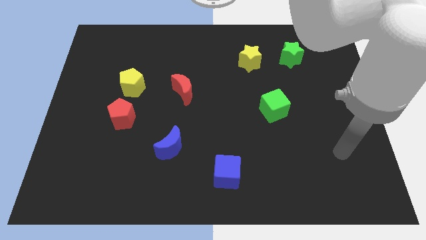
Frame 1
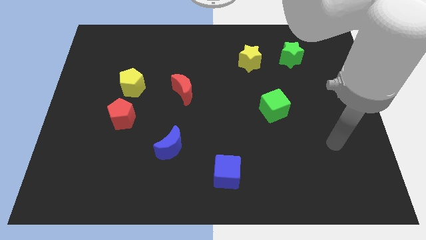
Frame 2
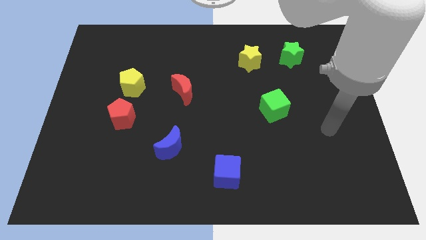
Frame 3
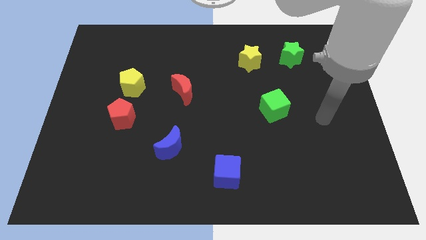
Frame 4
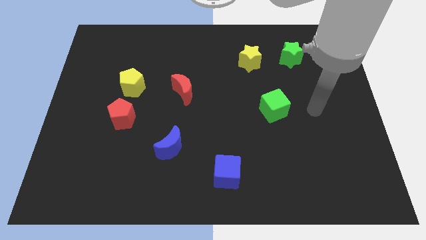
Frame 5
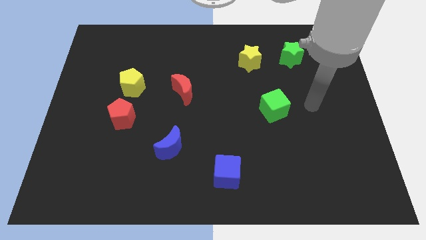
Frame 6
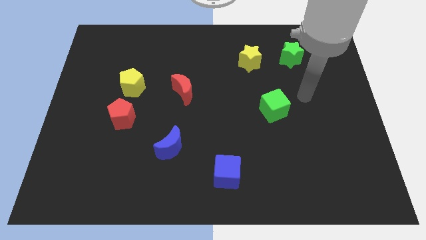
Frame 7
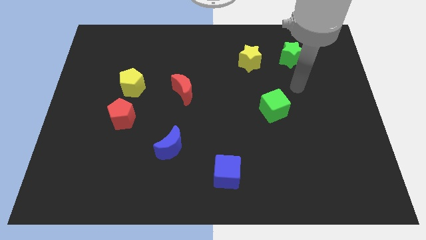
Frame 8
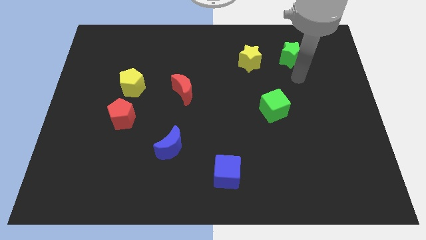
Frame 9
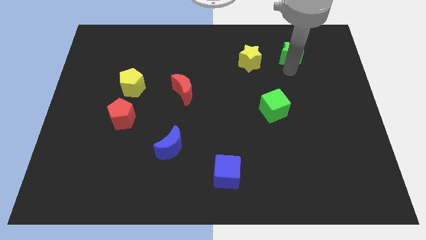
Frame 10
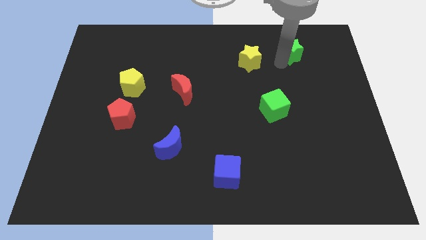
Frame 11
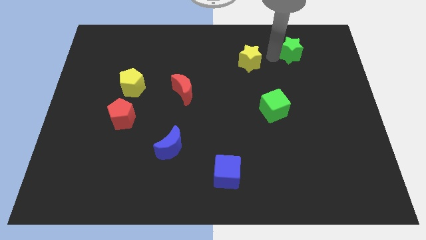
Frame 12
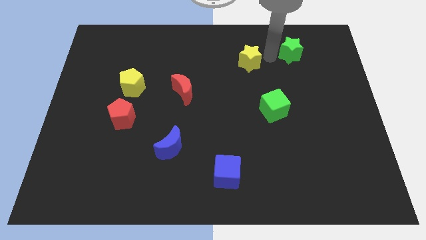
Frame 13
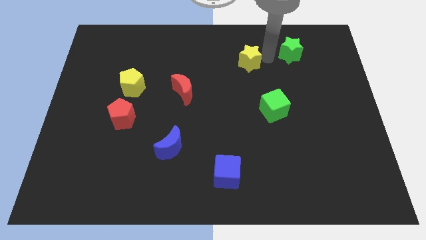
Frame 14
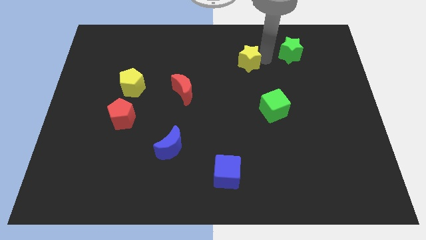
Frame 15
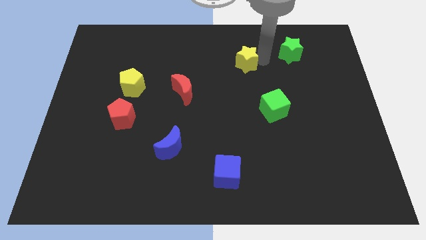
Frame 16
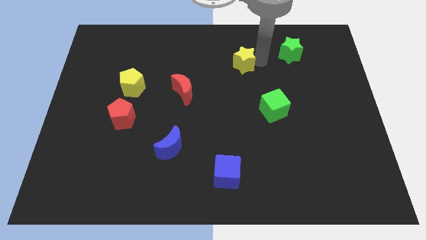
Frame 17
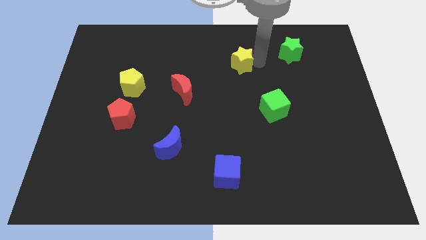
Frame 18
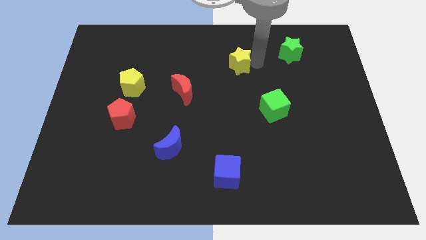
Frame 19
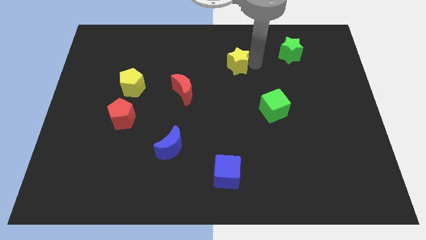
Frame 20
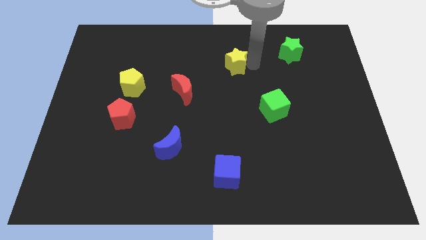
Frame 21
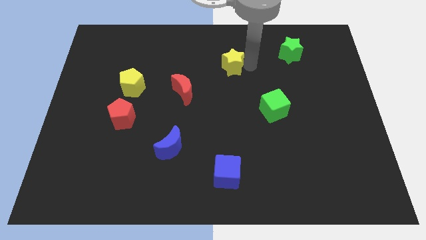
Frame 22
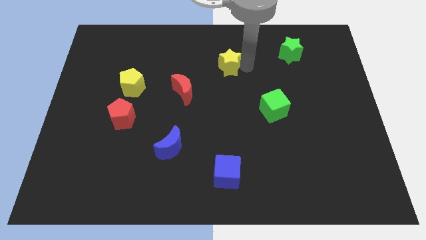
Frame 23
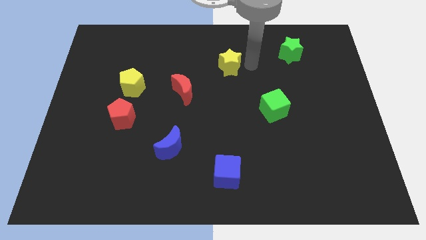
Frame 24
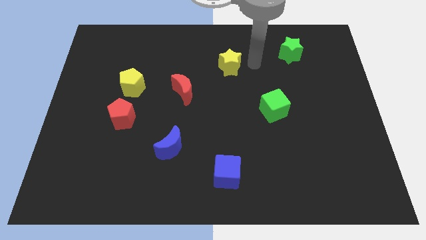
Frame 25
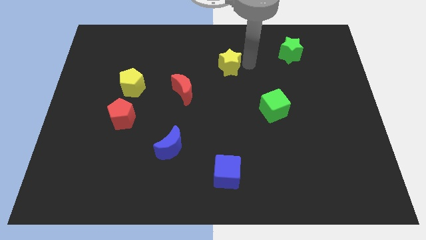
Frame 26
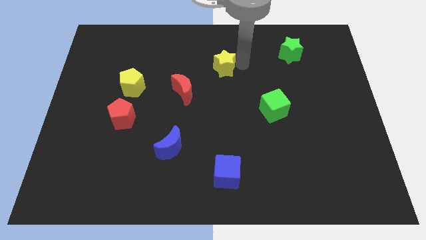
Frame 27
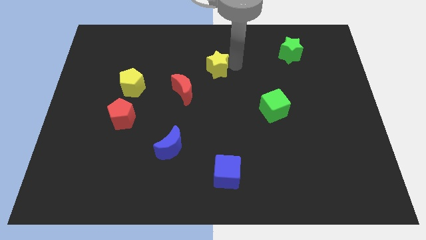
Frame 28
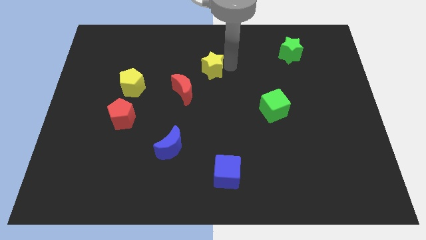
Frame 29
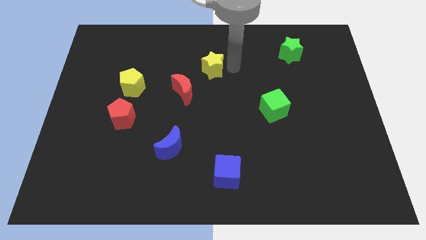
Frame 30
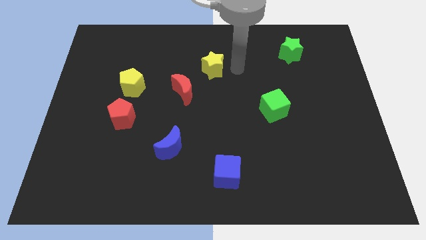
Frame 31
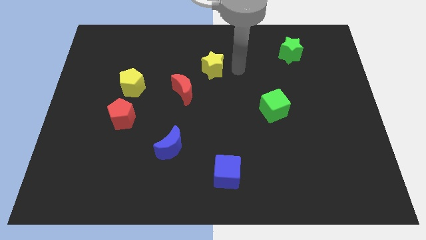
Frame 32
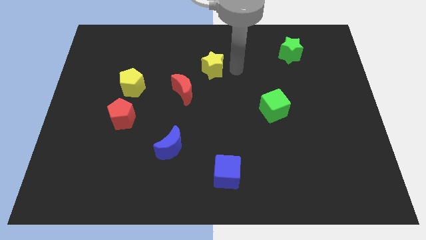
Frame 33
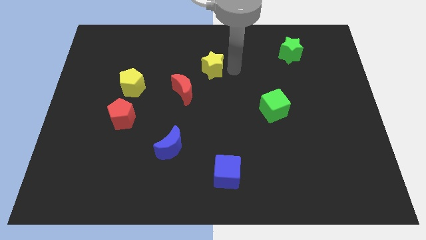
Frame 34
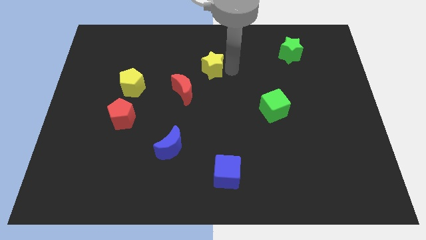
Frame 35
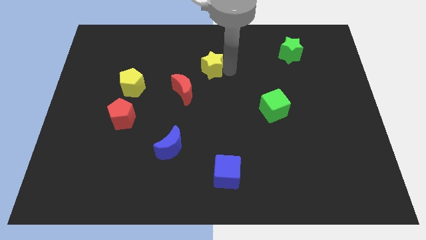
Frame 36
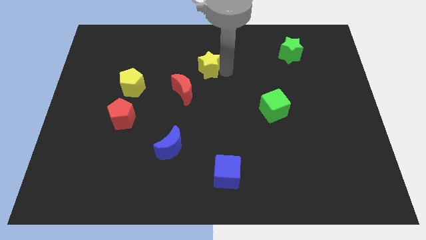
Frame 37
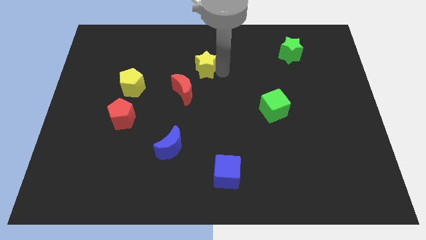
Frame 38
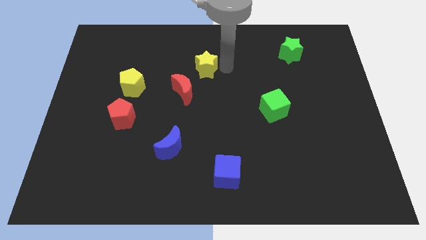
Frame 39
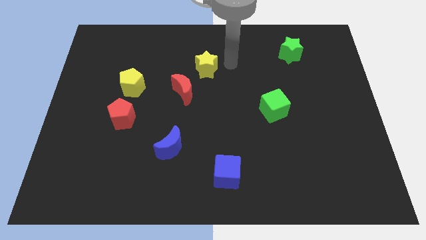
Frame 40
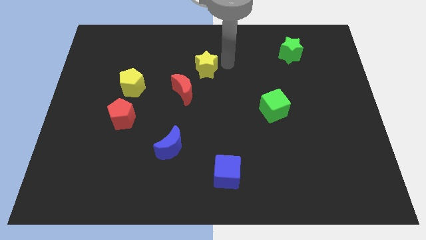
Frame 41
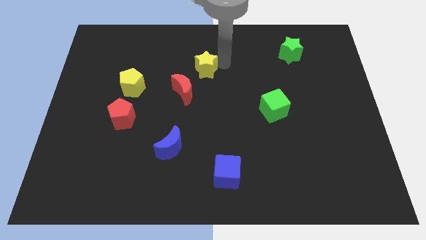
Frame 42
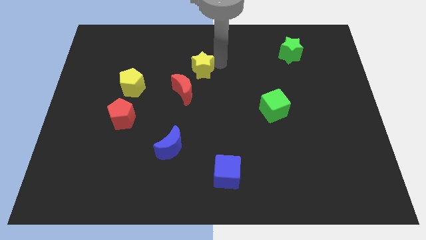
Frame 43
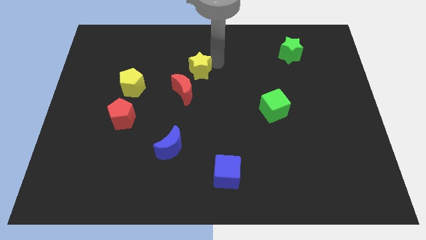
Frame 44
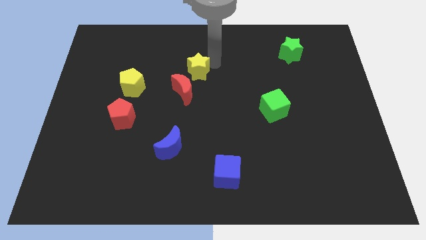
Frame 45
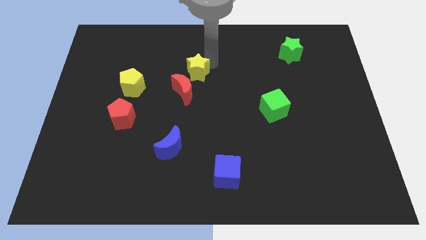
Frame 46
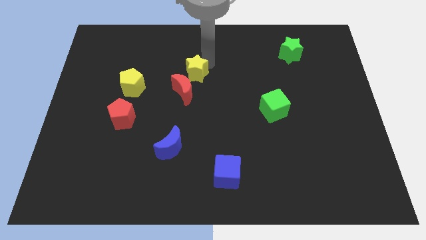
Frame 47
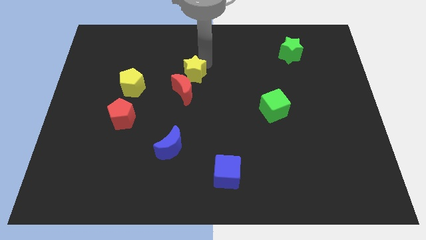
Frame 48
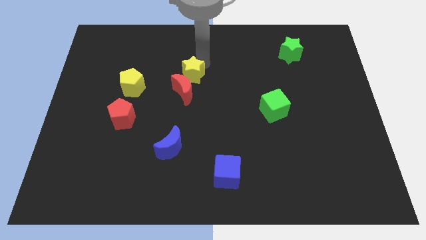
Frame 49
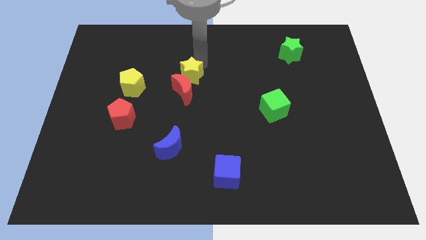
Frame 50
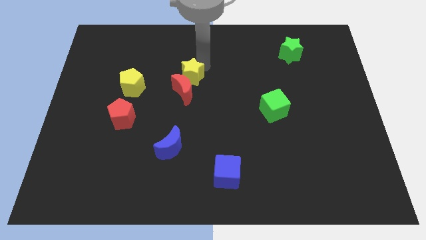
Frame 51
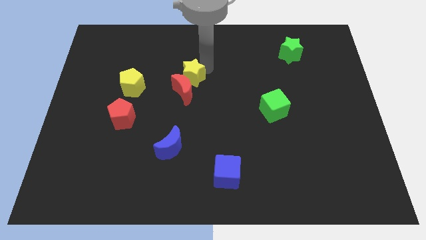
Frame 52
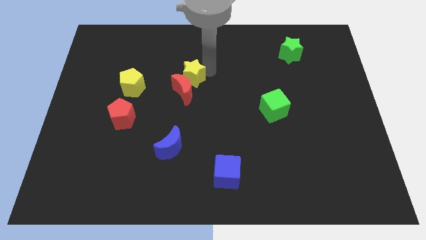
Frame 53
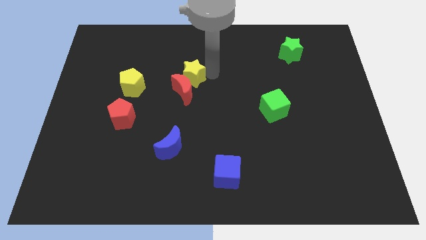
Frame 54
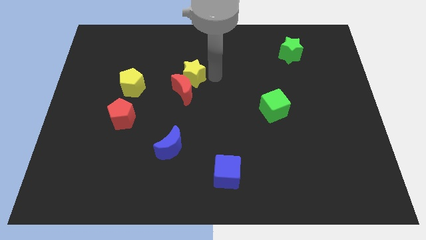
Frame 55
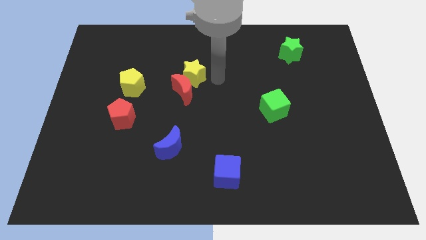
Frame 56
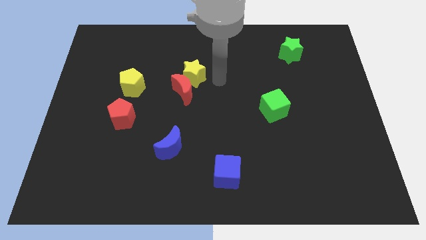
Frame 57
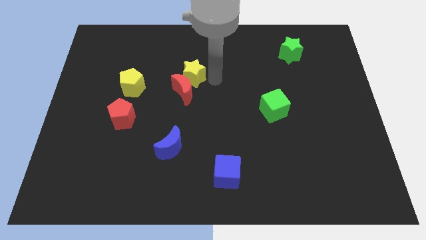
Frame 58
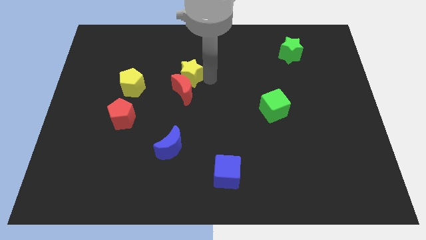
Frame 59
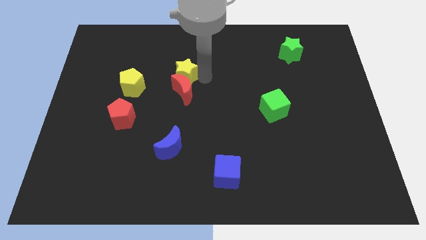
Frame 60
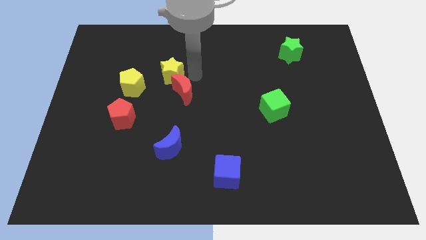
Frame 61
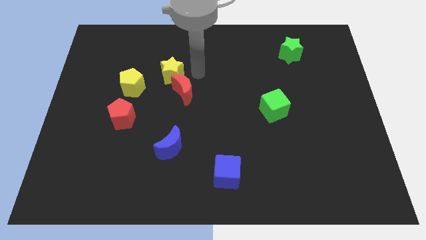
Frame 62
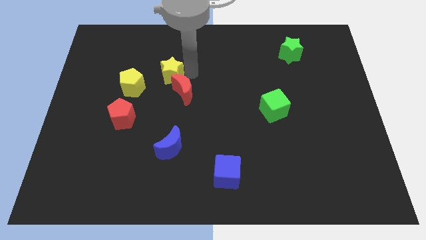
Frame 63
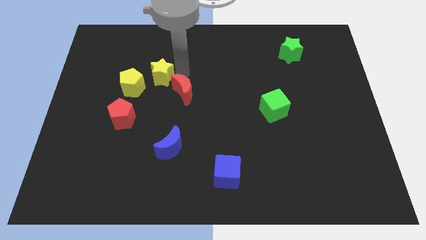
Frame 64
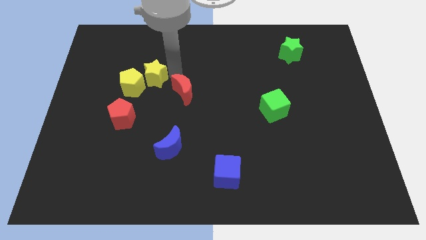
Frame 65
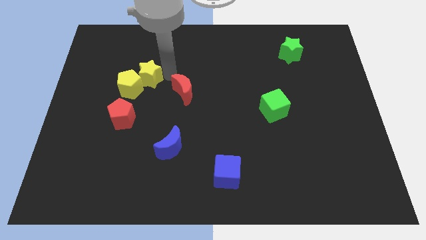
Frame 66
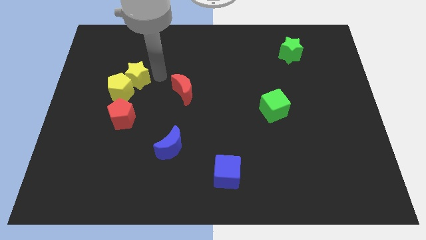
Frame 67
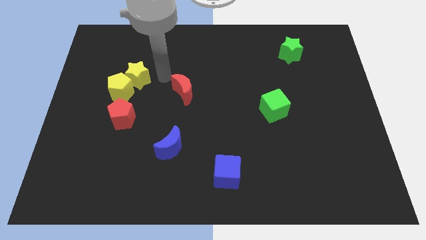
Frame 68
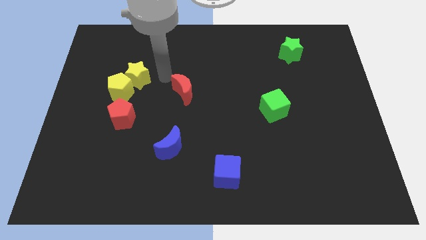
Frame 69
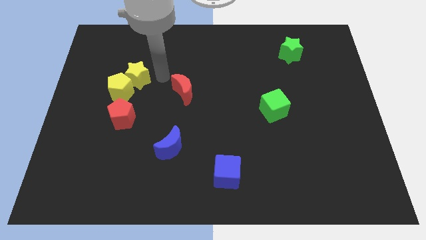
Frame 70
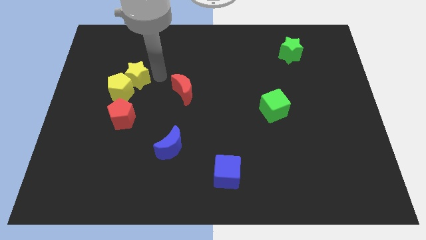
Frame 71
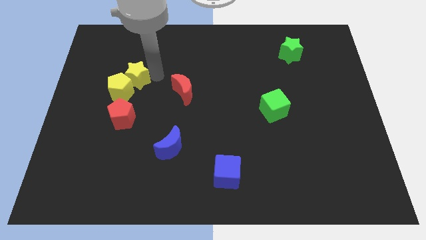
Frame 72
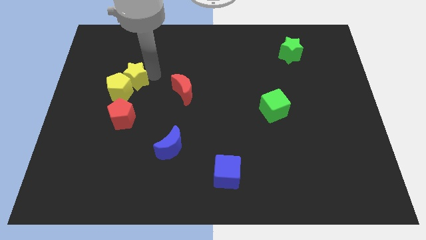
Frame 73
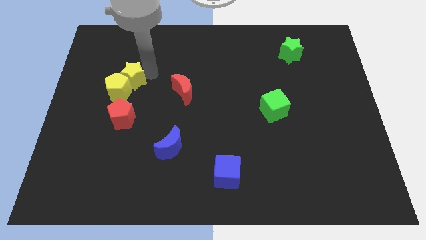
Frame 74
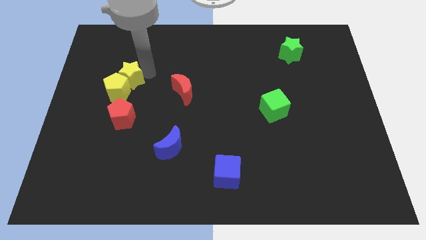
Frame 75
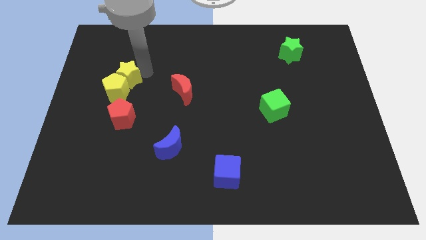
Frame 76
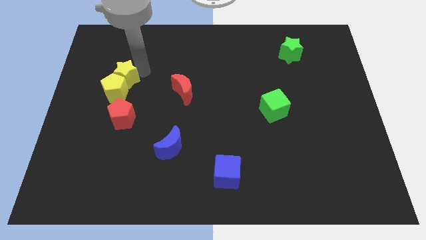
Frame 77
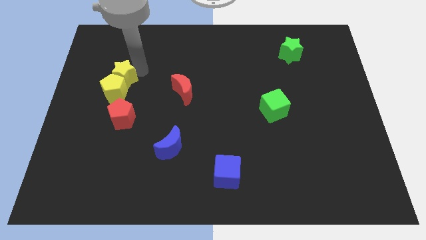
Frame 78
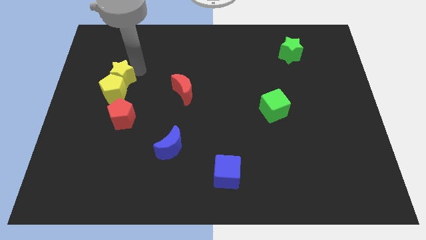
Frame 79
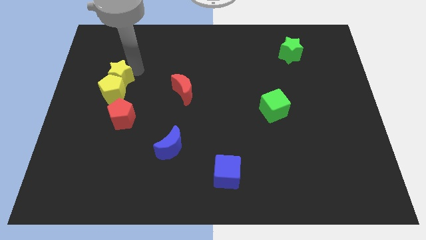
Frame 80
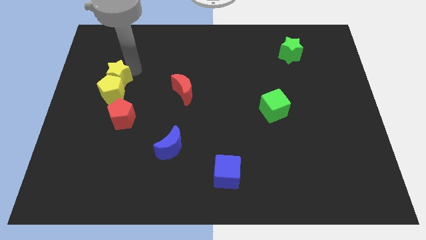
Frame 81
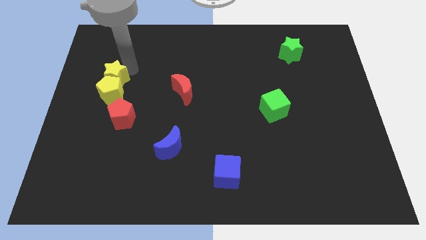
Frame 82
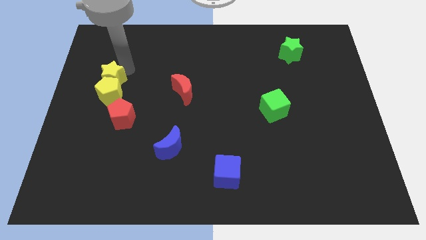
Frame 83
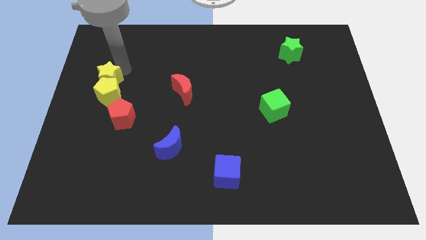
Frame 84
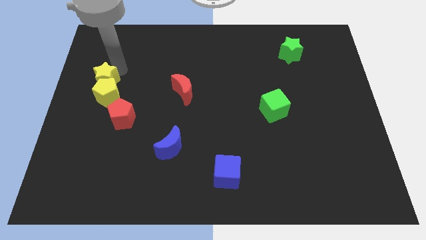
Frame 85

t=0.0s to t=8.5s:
put the yellow star to the left side of the board
